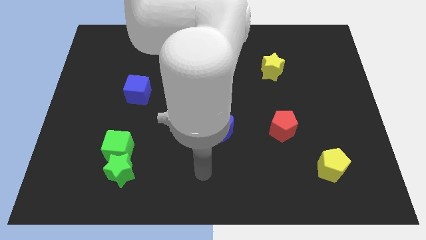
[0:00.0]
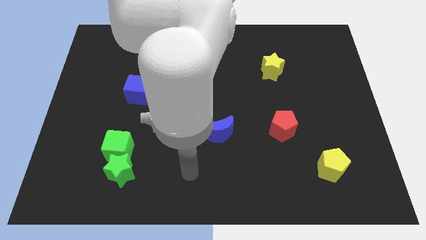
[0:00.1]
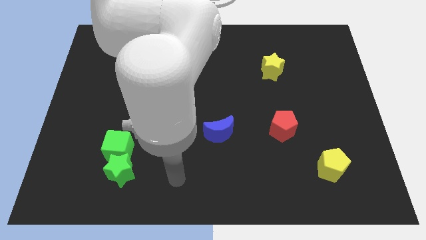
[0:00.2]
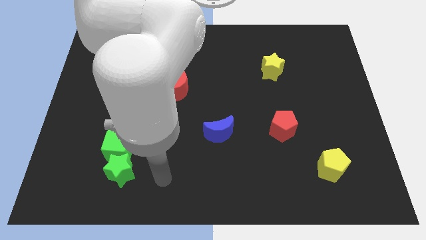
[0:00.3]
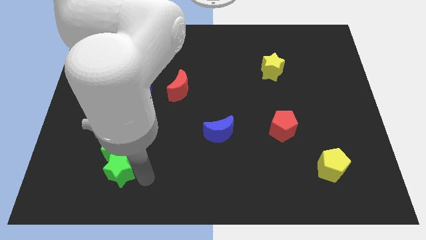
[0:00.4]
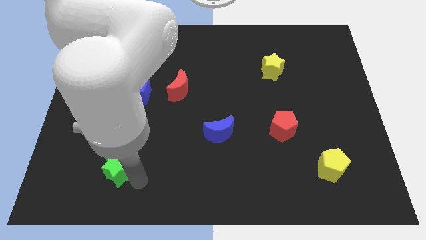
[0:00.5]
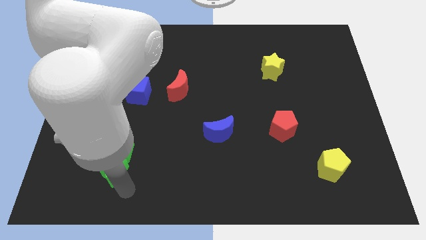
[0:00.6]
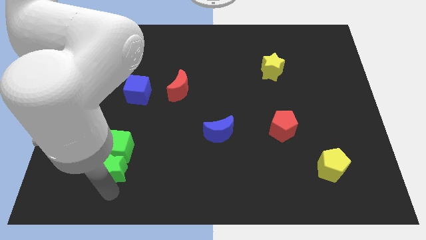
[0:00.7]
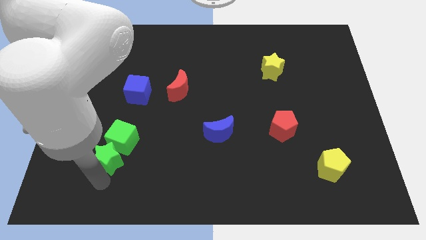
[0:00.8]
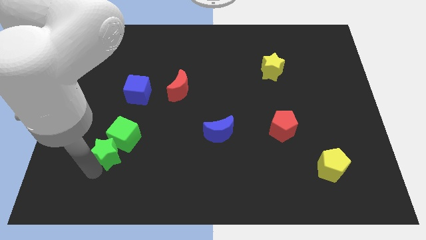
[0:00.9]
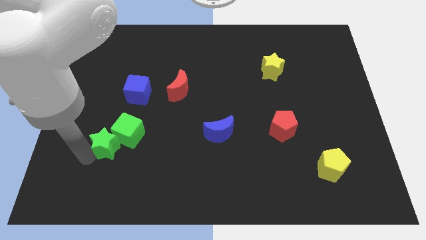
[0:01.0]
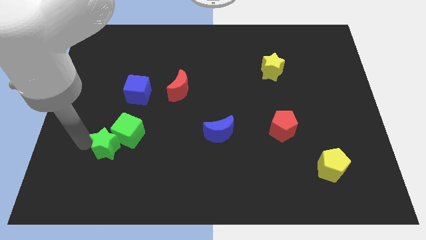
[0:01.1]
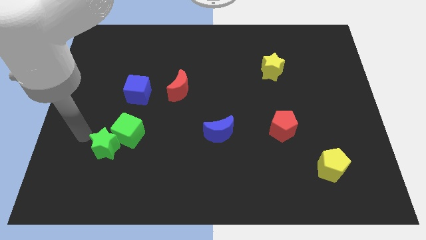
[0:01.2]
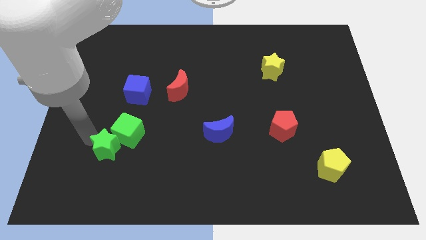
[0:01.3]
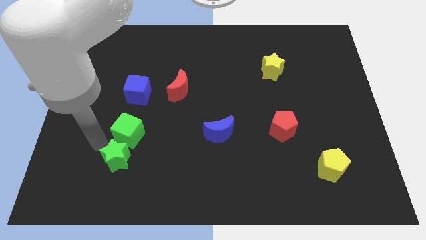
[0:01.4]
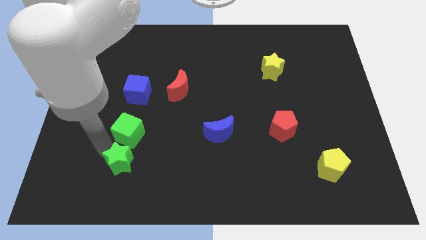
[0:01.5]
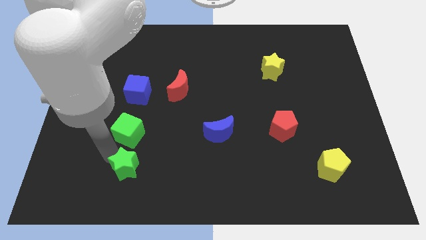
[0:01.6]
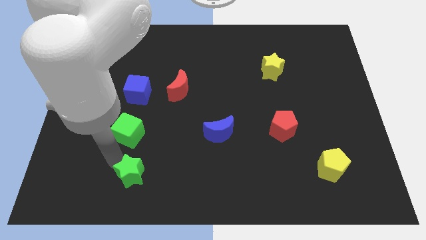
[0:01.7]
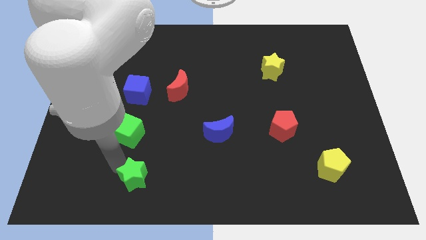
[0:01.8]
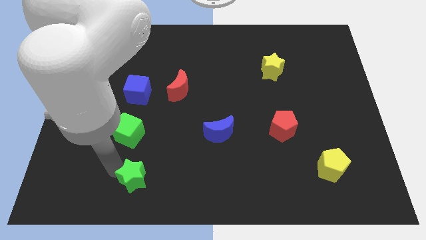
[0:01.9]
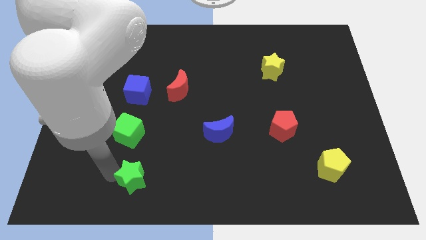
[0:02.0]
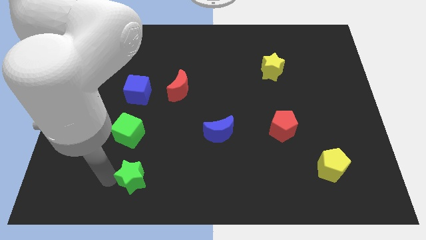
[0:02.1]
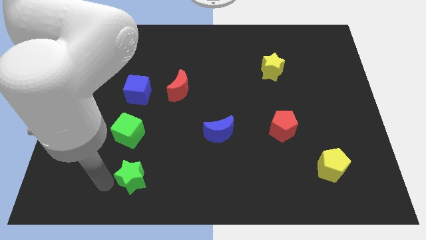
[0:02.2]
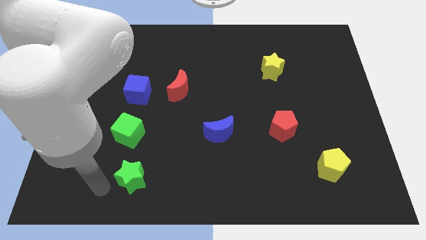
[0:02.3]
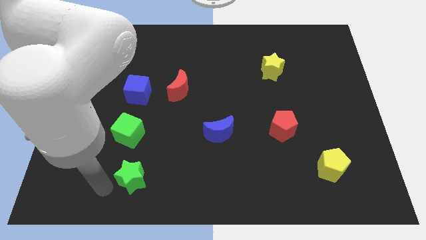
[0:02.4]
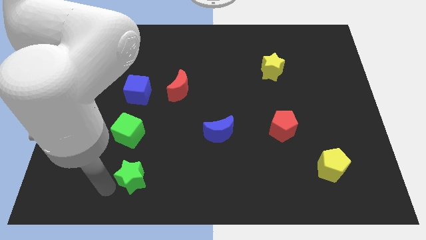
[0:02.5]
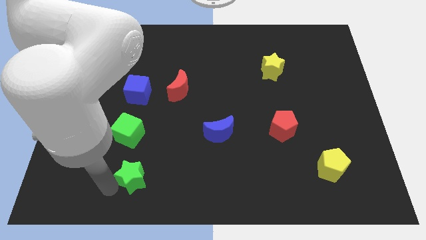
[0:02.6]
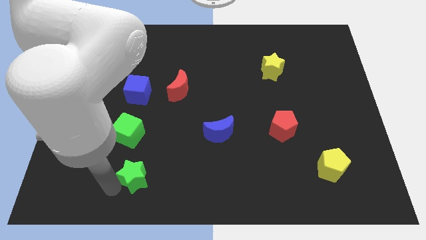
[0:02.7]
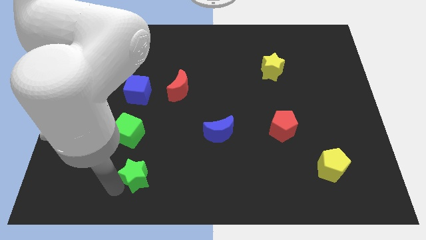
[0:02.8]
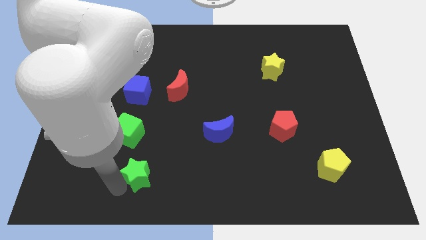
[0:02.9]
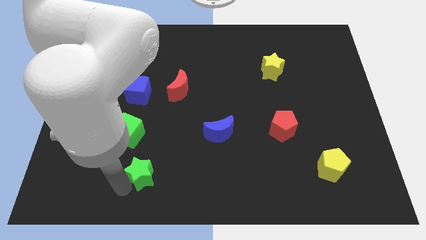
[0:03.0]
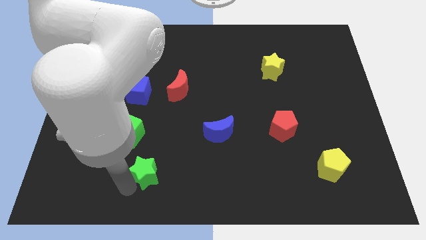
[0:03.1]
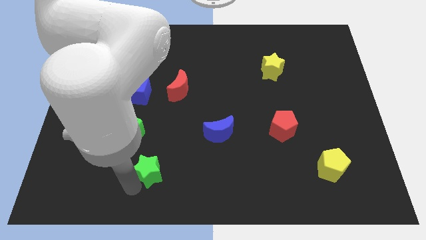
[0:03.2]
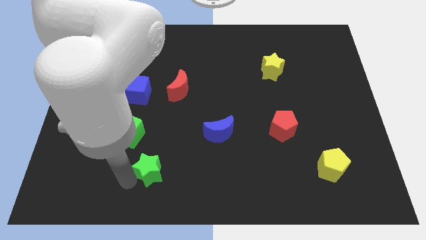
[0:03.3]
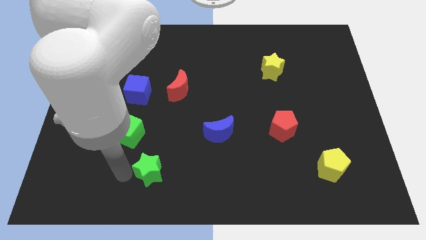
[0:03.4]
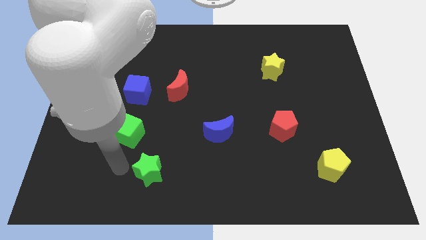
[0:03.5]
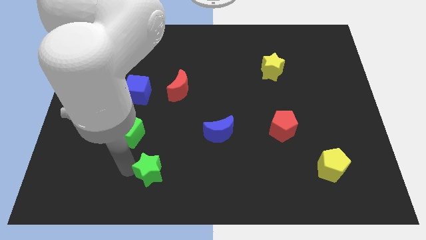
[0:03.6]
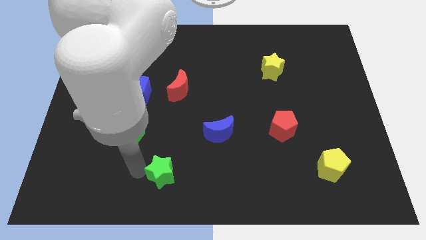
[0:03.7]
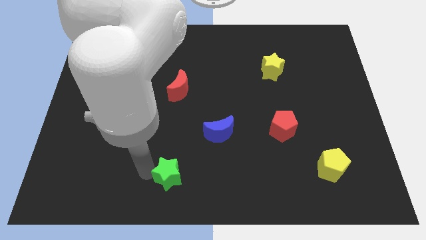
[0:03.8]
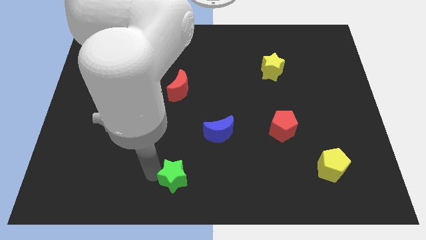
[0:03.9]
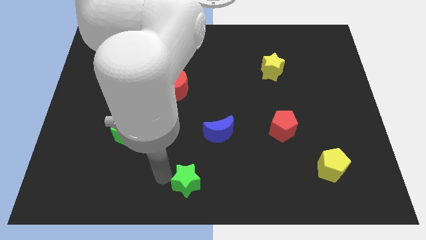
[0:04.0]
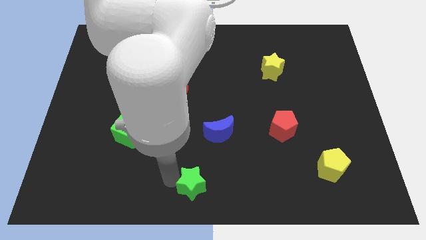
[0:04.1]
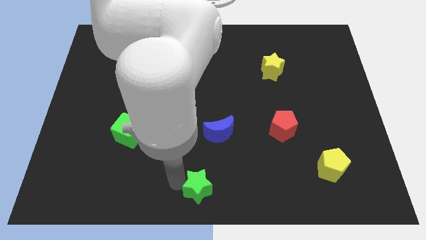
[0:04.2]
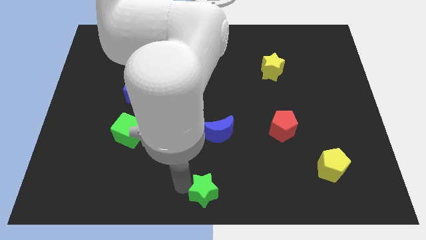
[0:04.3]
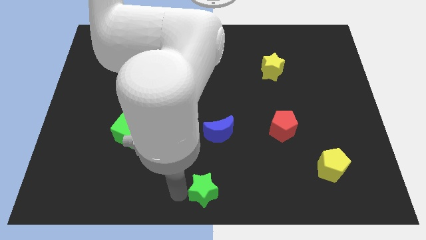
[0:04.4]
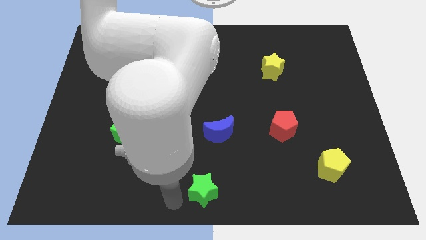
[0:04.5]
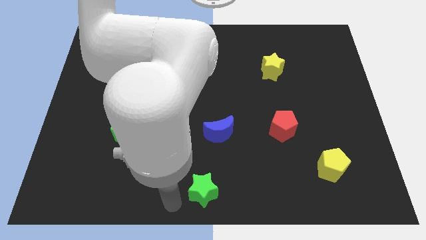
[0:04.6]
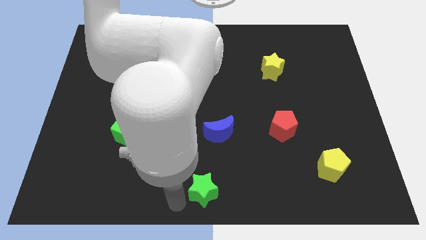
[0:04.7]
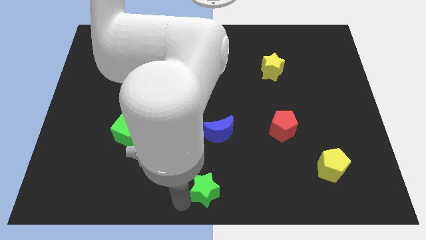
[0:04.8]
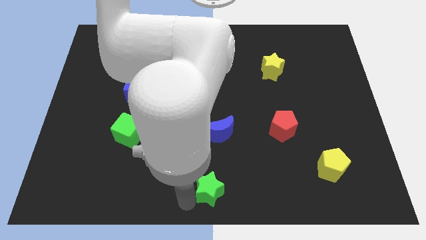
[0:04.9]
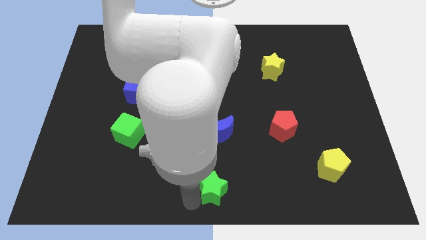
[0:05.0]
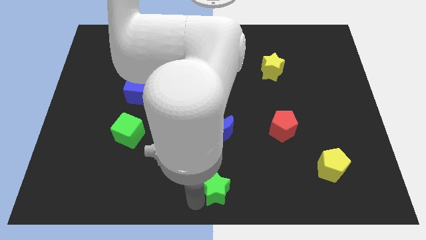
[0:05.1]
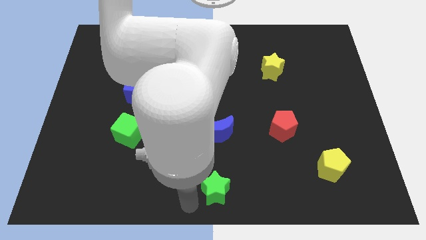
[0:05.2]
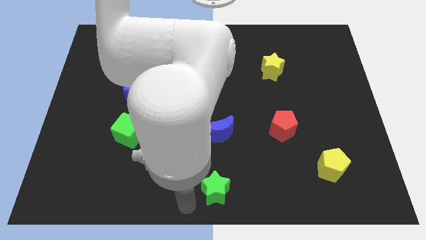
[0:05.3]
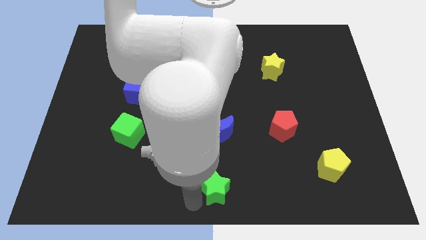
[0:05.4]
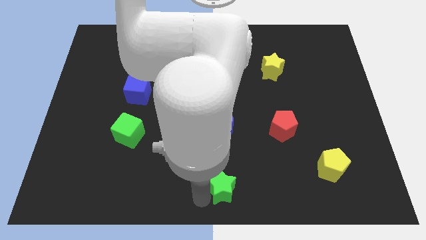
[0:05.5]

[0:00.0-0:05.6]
slide the green star to the right

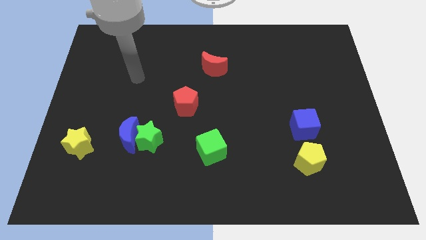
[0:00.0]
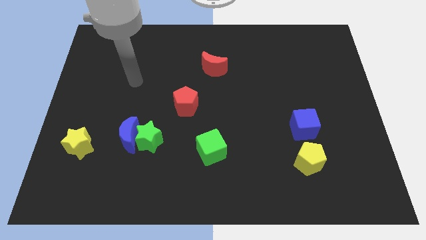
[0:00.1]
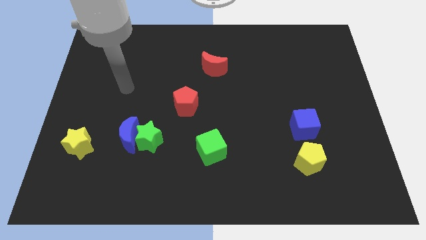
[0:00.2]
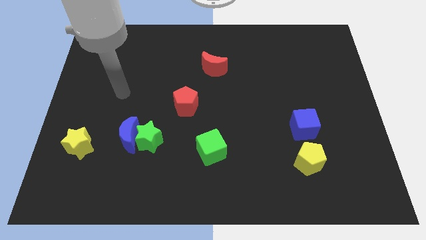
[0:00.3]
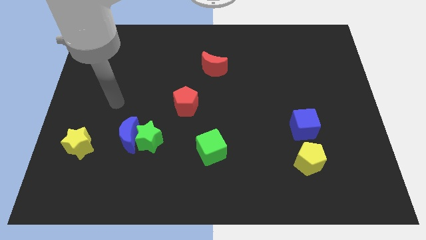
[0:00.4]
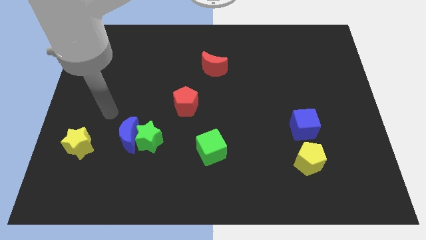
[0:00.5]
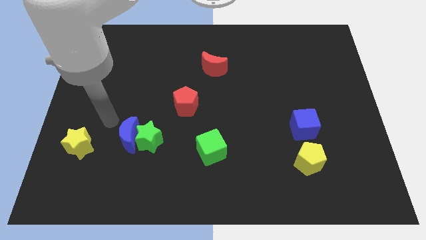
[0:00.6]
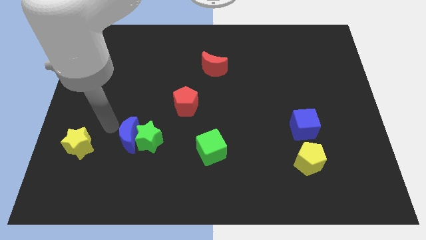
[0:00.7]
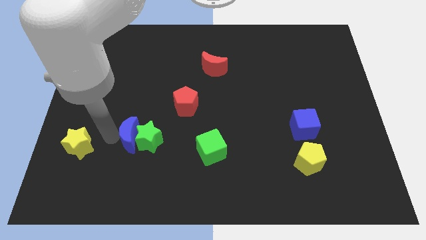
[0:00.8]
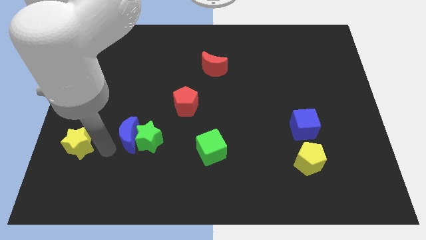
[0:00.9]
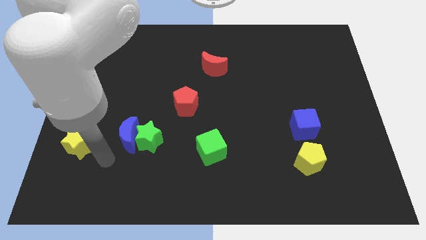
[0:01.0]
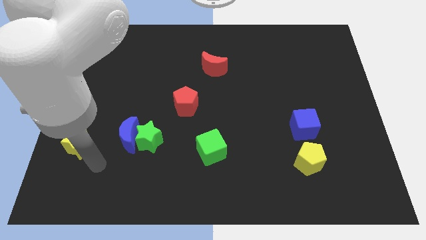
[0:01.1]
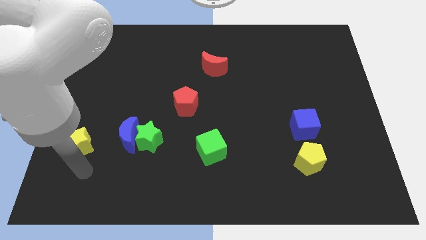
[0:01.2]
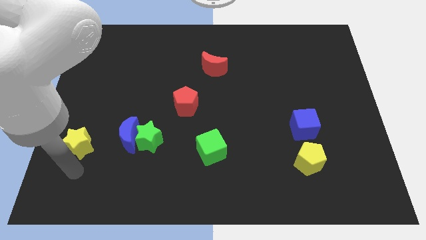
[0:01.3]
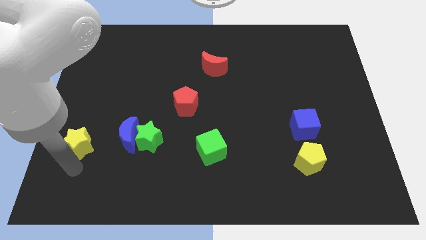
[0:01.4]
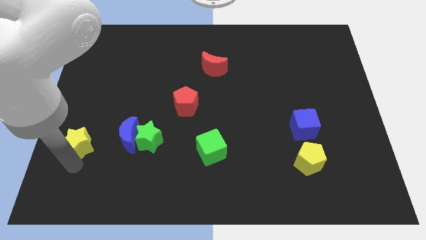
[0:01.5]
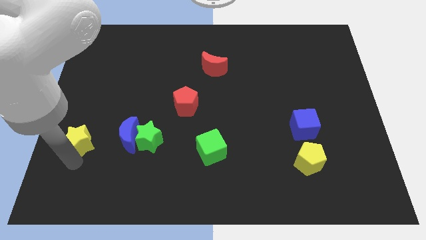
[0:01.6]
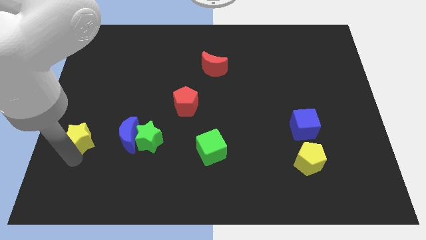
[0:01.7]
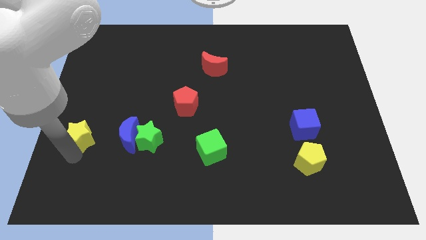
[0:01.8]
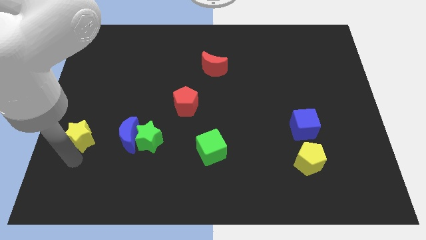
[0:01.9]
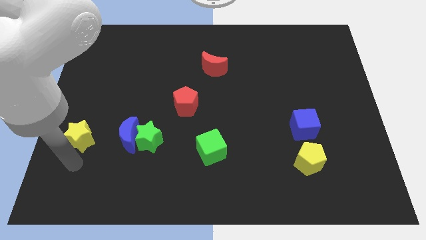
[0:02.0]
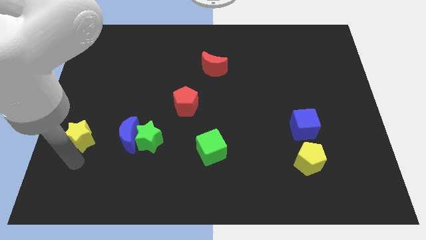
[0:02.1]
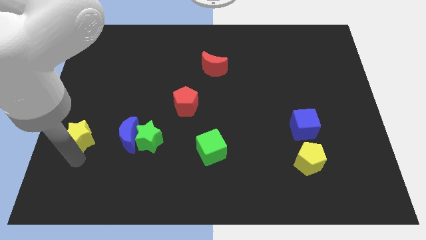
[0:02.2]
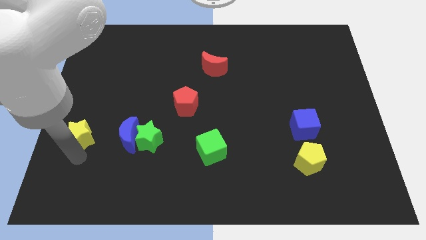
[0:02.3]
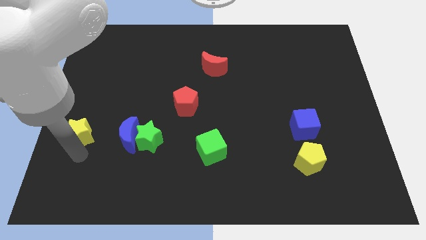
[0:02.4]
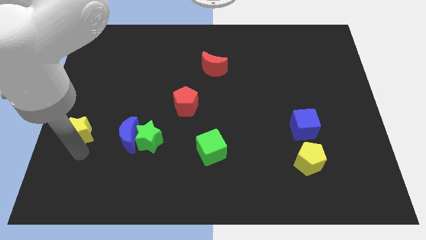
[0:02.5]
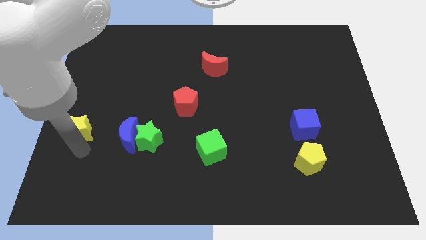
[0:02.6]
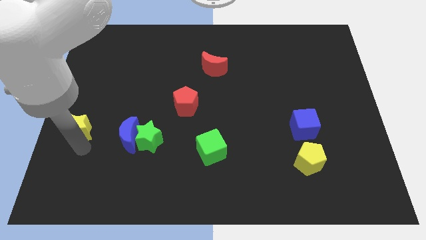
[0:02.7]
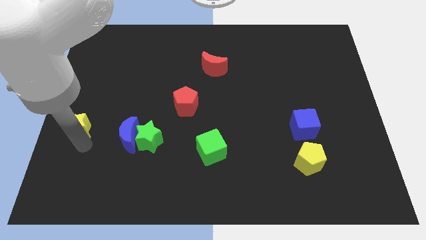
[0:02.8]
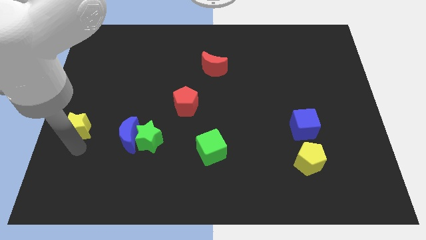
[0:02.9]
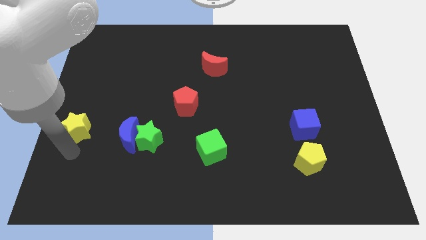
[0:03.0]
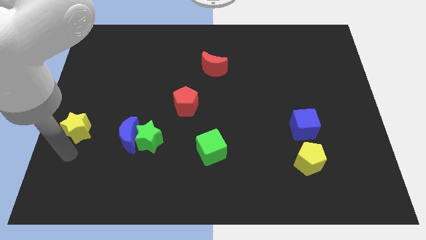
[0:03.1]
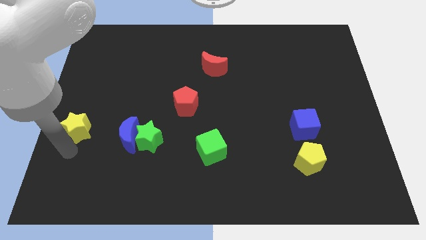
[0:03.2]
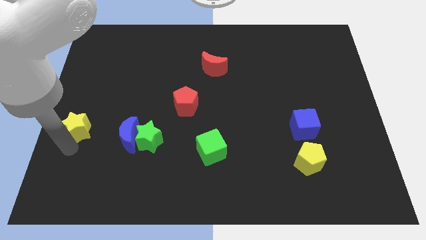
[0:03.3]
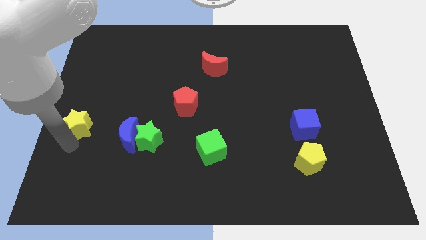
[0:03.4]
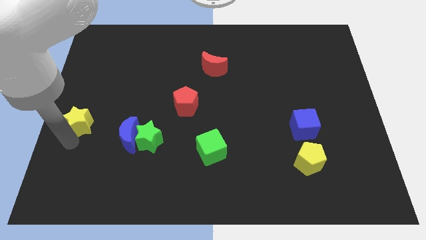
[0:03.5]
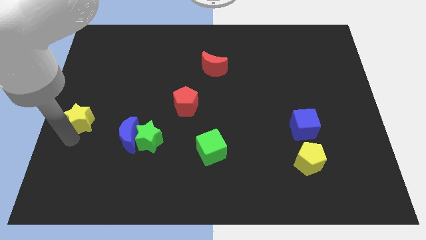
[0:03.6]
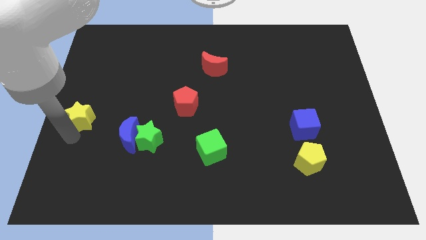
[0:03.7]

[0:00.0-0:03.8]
slide the yellow star a bit upwards
